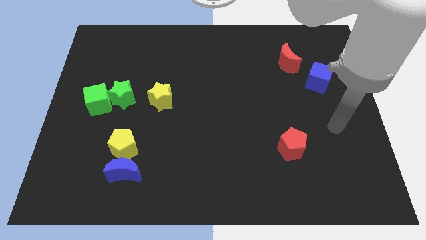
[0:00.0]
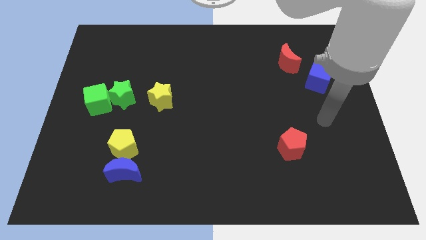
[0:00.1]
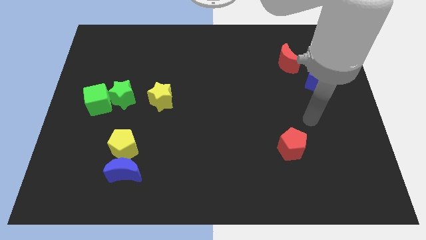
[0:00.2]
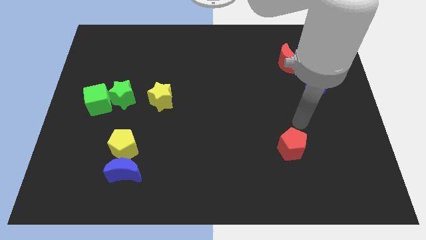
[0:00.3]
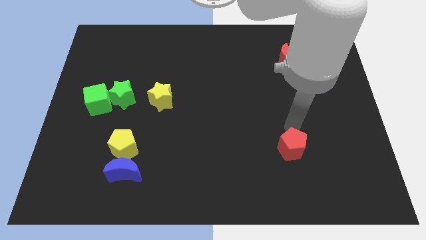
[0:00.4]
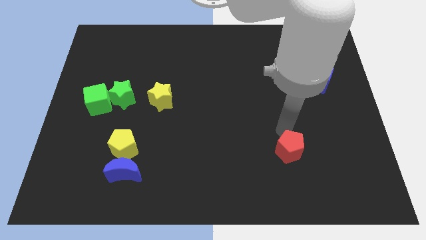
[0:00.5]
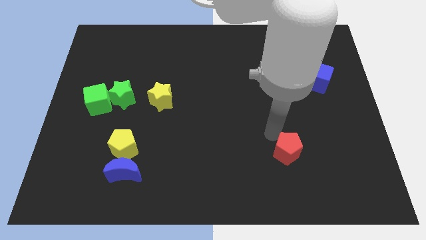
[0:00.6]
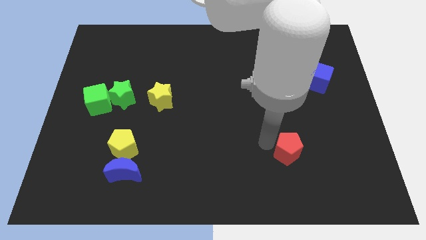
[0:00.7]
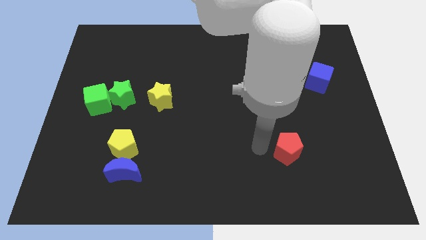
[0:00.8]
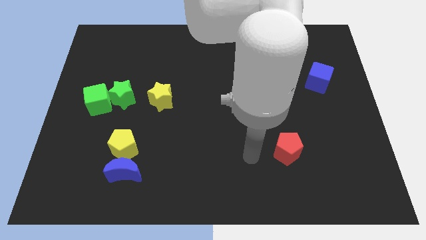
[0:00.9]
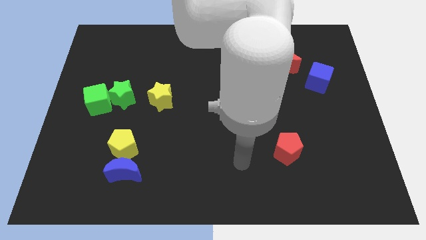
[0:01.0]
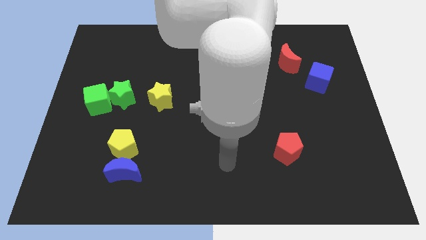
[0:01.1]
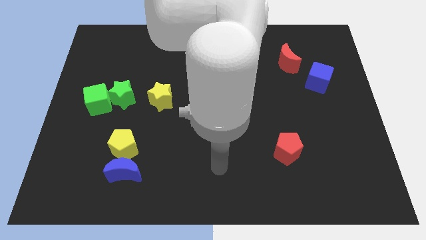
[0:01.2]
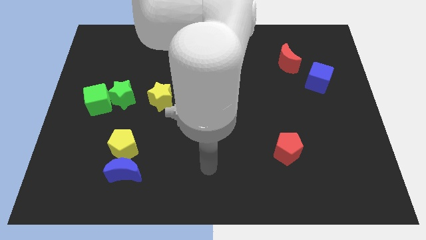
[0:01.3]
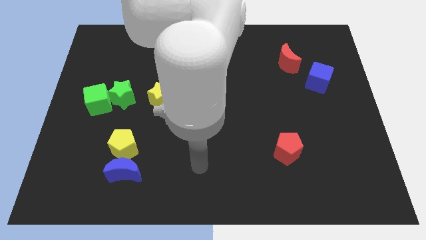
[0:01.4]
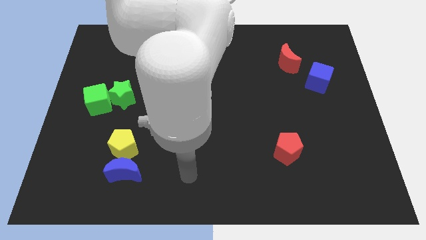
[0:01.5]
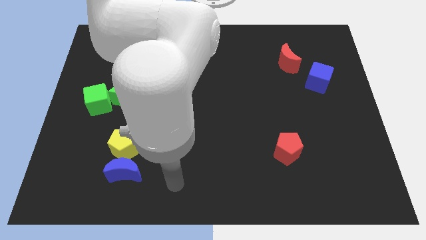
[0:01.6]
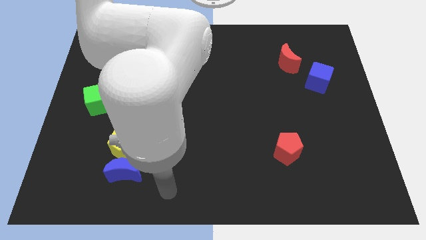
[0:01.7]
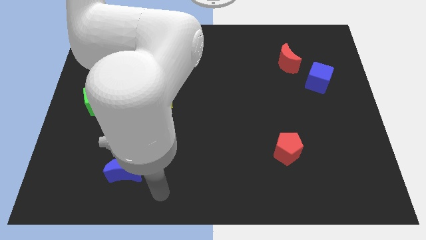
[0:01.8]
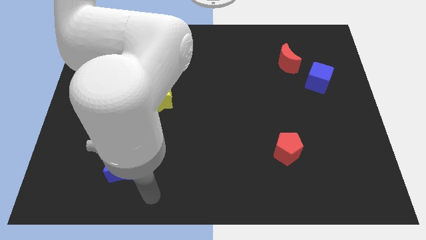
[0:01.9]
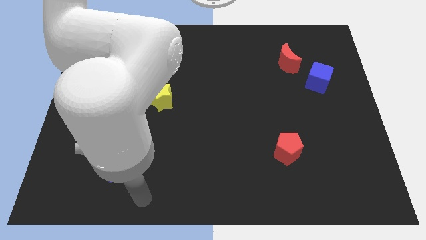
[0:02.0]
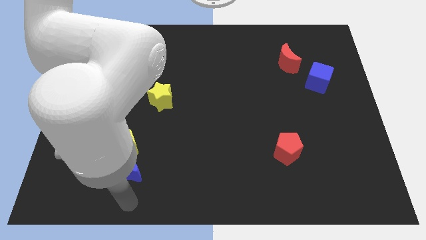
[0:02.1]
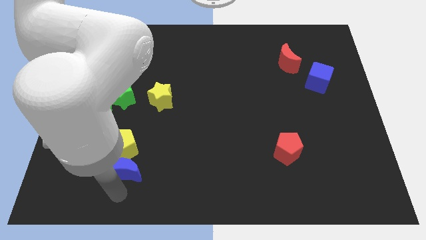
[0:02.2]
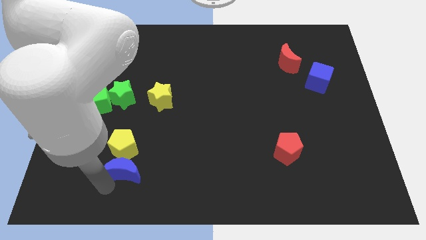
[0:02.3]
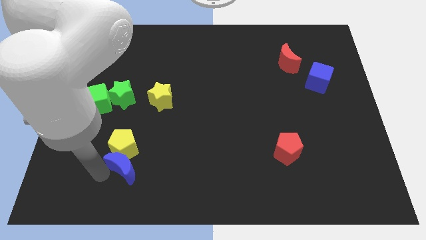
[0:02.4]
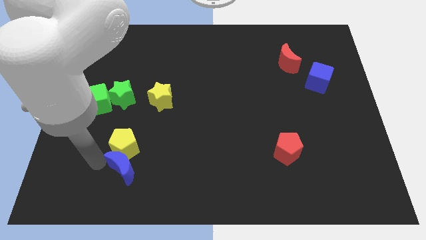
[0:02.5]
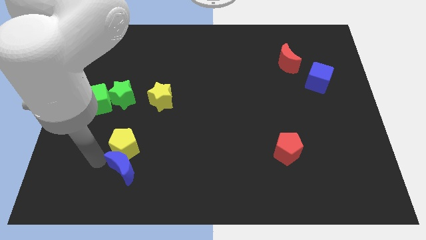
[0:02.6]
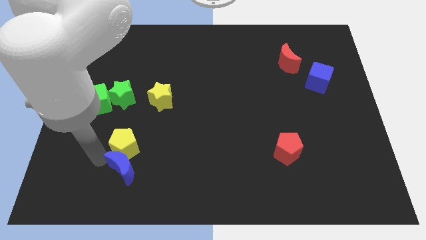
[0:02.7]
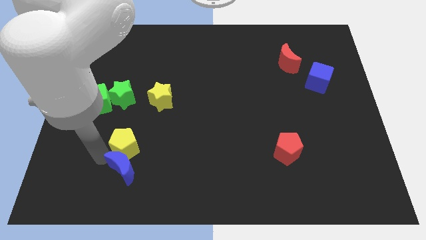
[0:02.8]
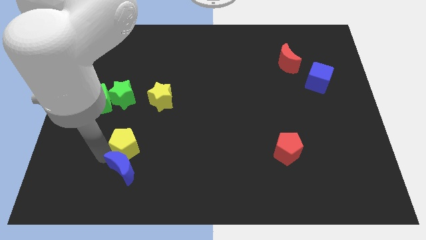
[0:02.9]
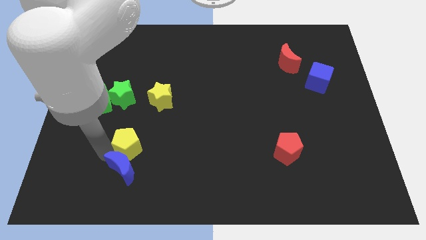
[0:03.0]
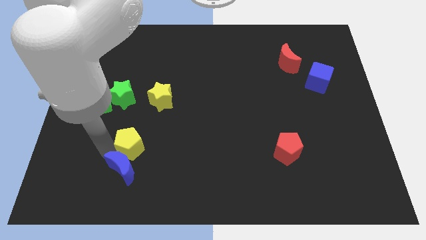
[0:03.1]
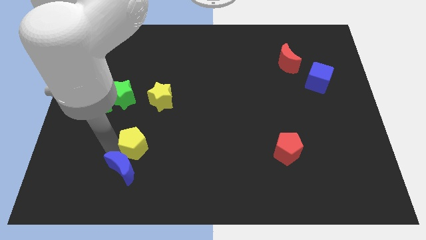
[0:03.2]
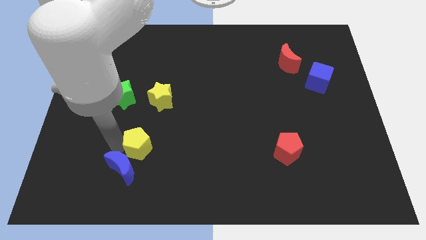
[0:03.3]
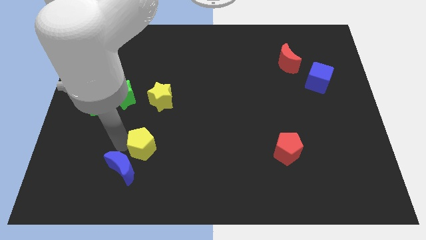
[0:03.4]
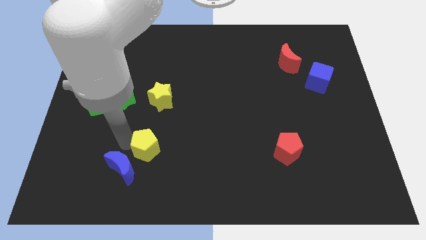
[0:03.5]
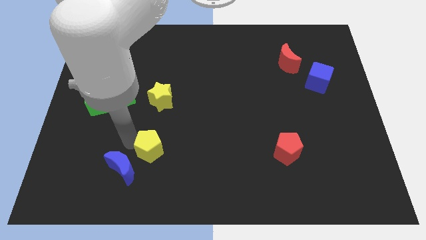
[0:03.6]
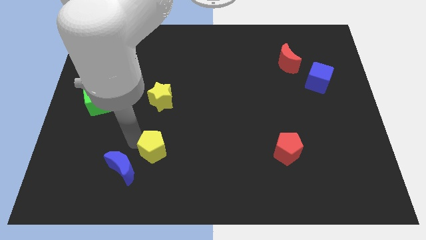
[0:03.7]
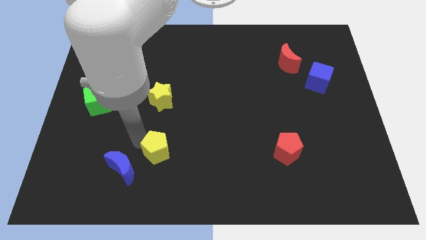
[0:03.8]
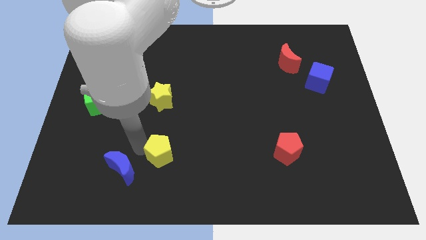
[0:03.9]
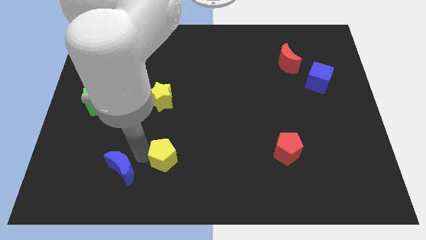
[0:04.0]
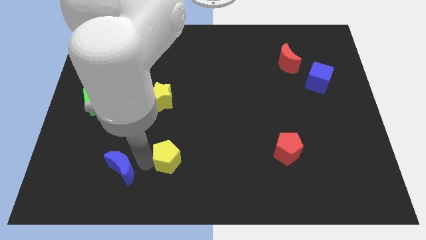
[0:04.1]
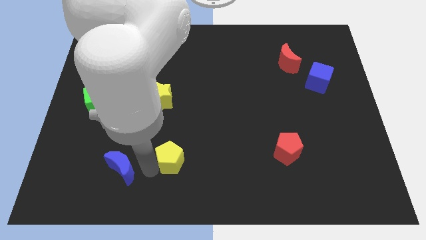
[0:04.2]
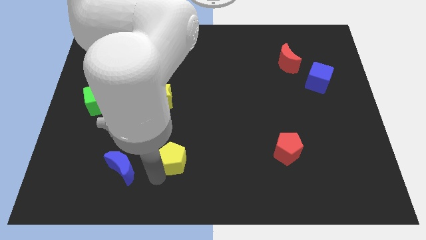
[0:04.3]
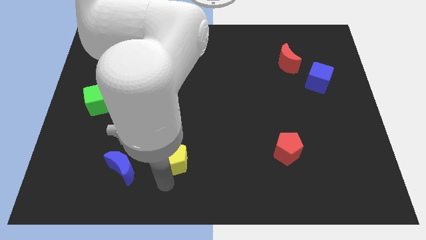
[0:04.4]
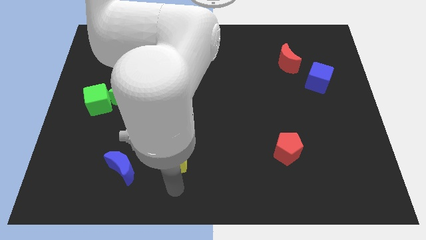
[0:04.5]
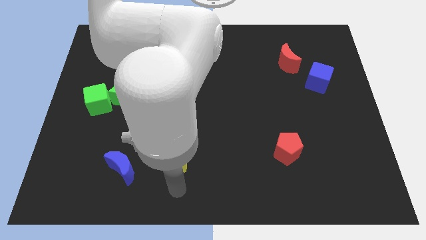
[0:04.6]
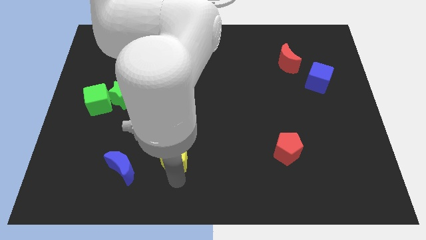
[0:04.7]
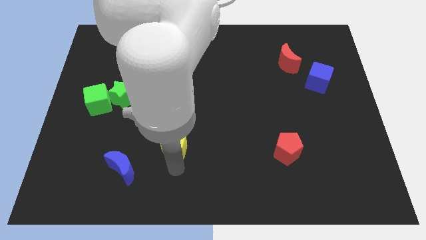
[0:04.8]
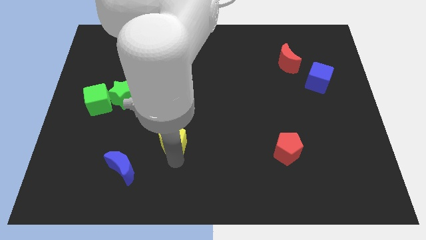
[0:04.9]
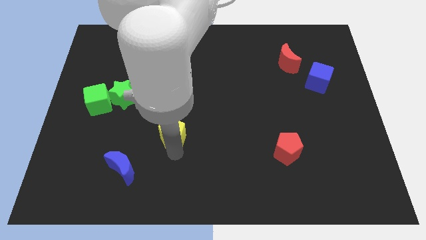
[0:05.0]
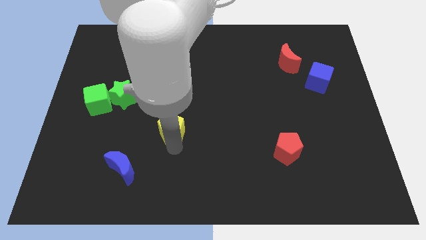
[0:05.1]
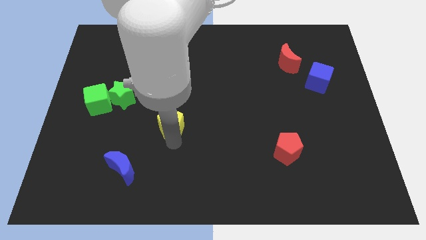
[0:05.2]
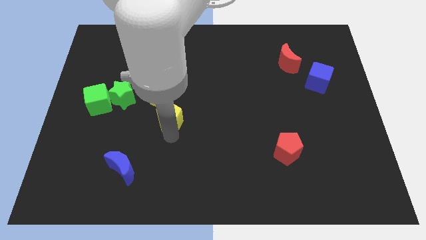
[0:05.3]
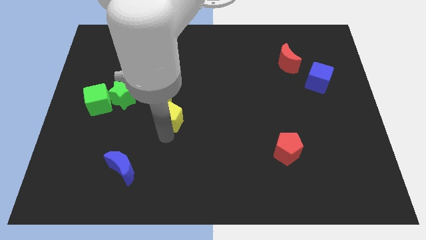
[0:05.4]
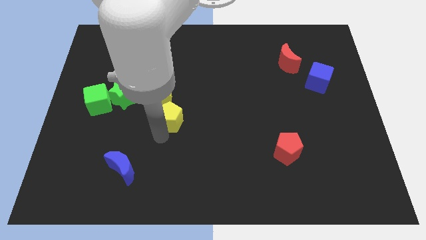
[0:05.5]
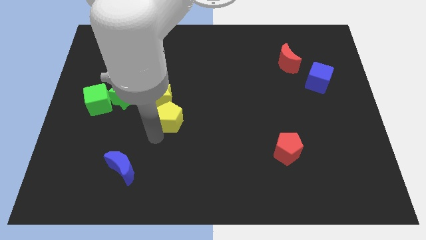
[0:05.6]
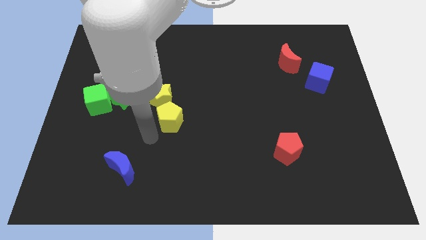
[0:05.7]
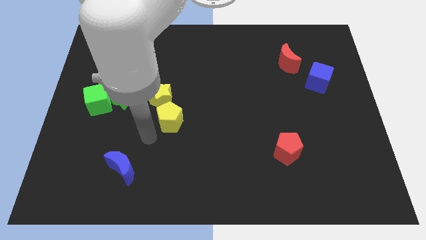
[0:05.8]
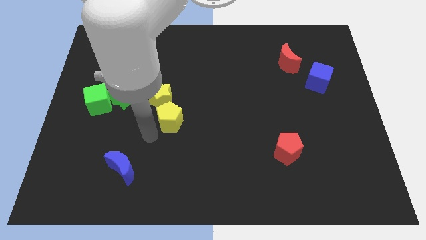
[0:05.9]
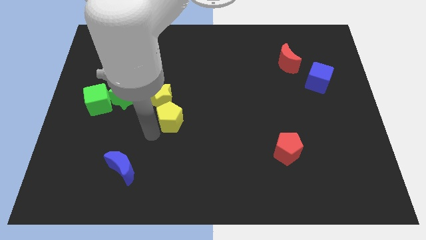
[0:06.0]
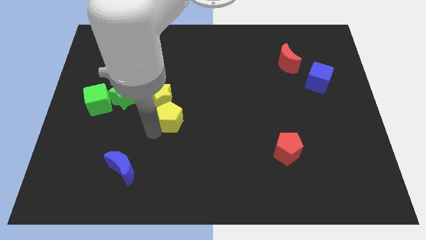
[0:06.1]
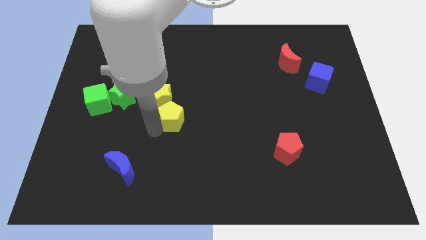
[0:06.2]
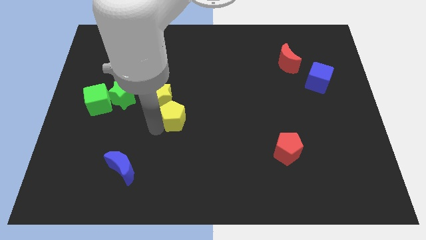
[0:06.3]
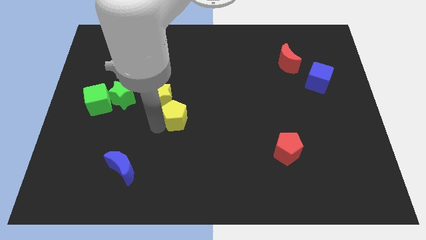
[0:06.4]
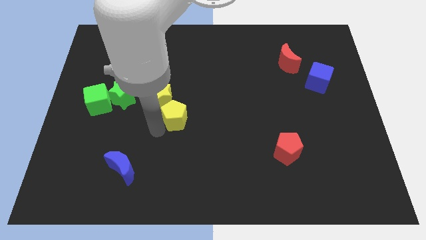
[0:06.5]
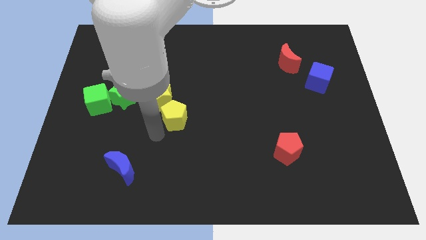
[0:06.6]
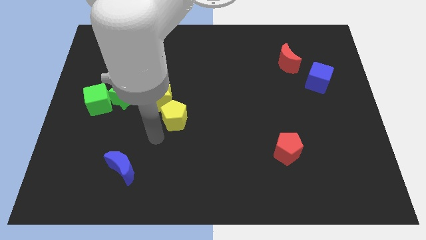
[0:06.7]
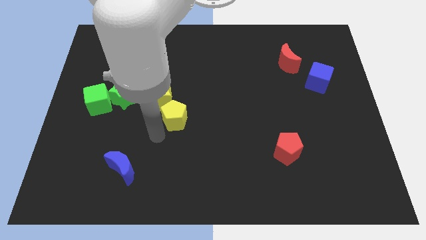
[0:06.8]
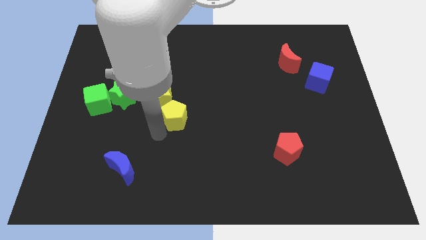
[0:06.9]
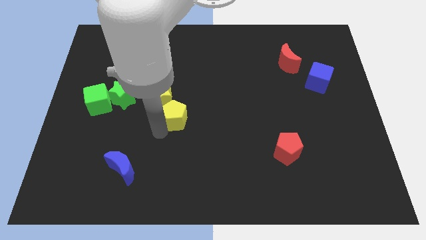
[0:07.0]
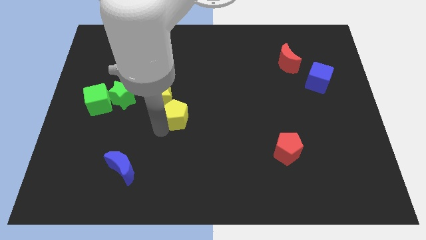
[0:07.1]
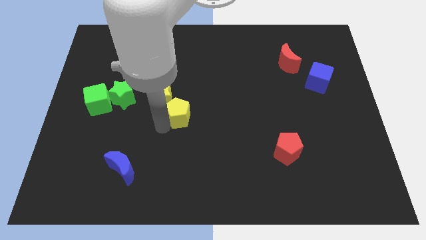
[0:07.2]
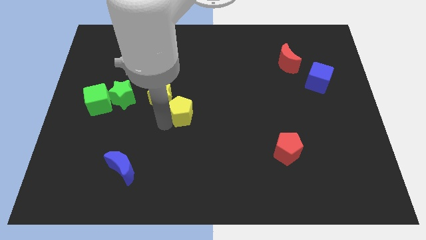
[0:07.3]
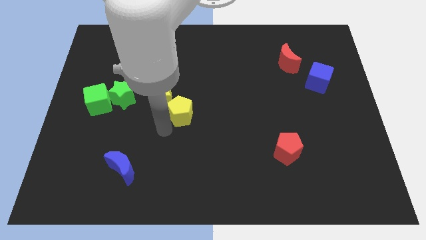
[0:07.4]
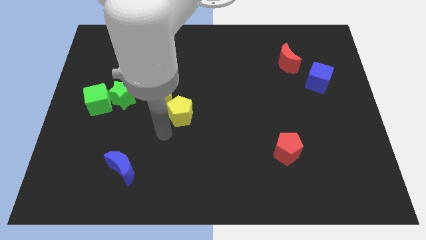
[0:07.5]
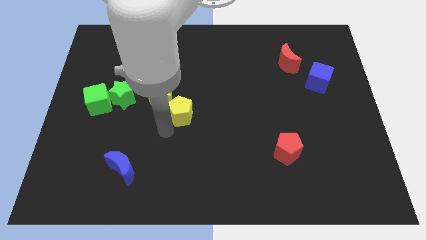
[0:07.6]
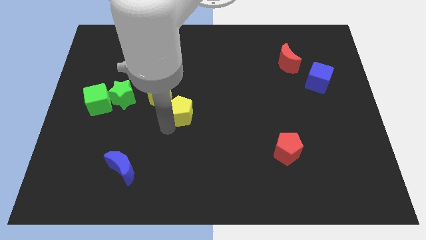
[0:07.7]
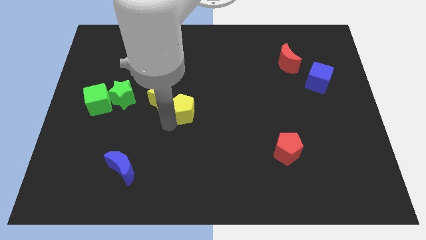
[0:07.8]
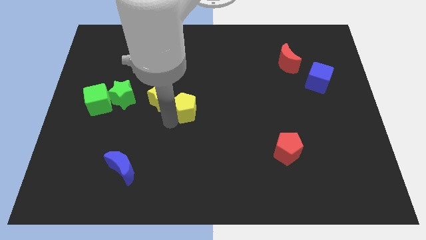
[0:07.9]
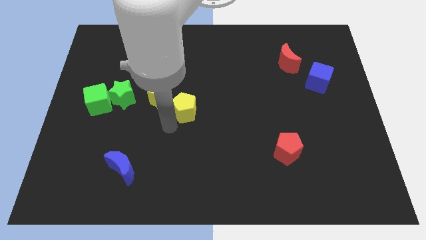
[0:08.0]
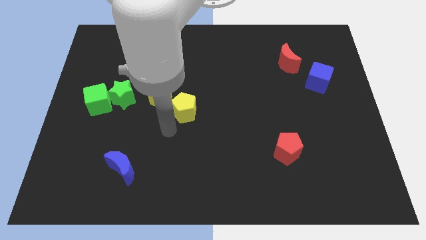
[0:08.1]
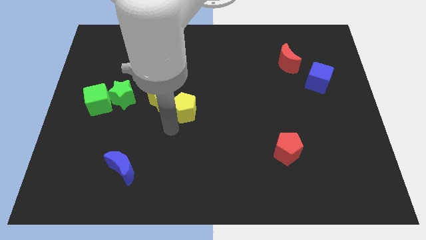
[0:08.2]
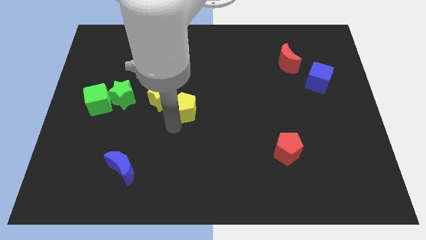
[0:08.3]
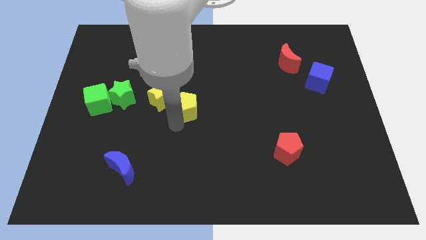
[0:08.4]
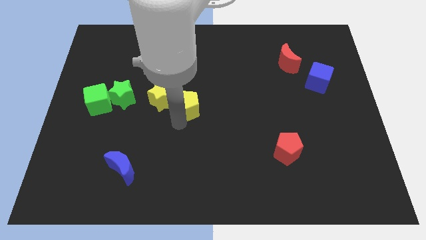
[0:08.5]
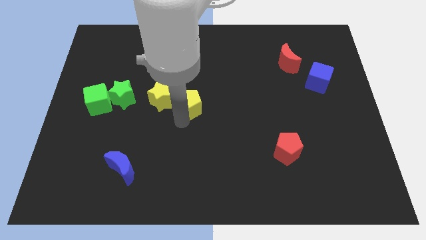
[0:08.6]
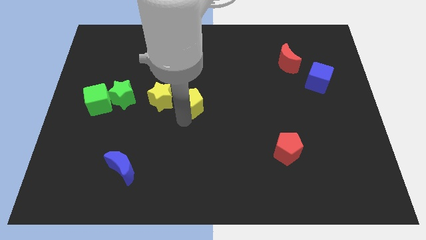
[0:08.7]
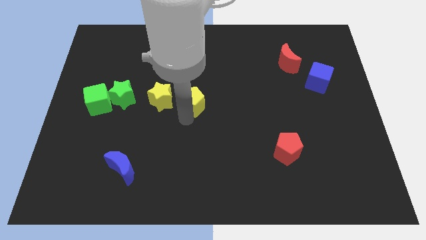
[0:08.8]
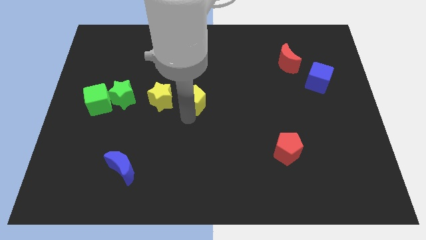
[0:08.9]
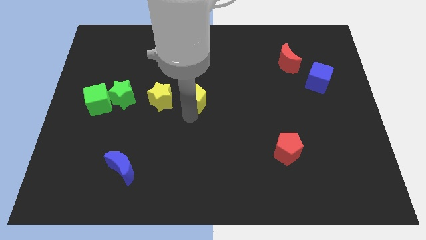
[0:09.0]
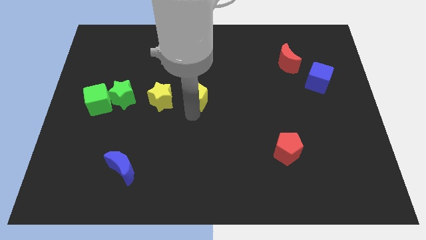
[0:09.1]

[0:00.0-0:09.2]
slide the yellow pentagon up and to the right diagonally
